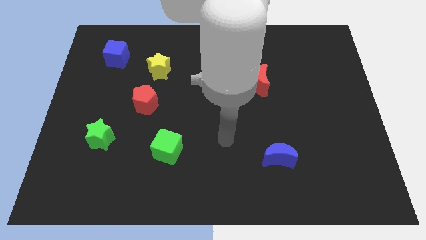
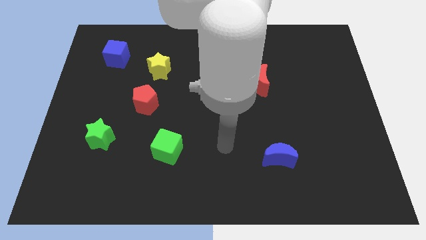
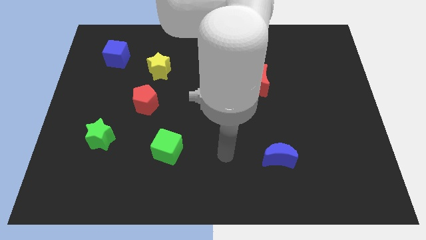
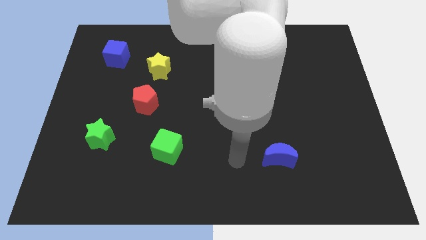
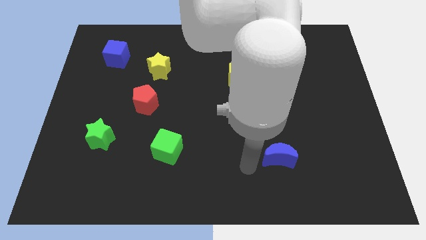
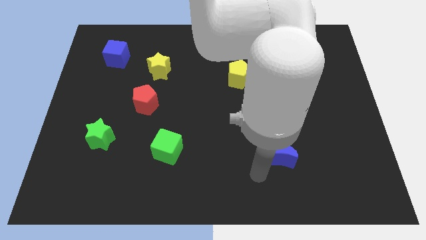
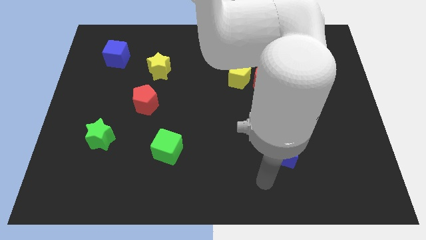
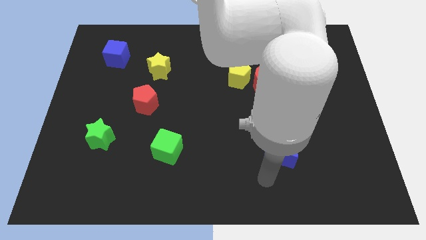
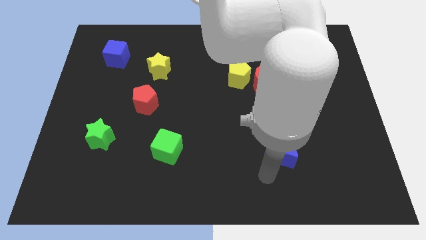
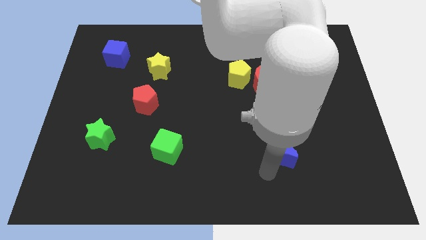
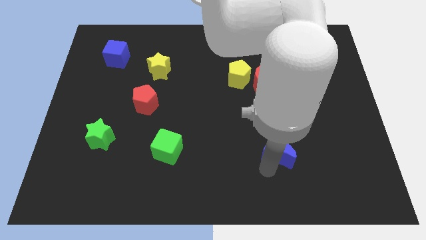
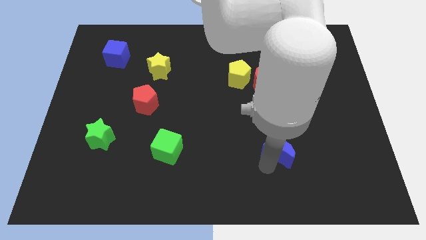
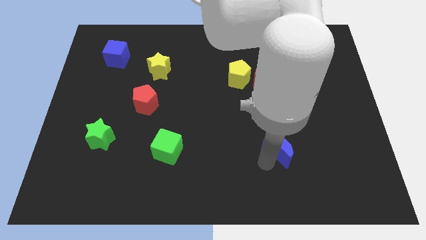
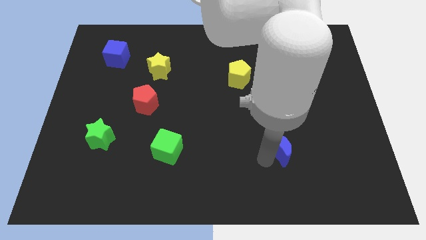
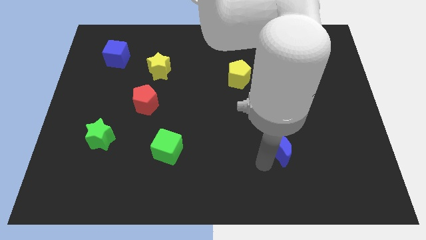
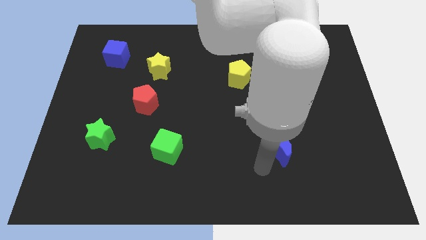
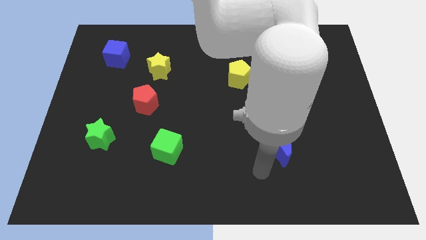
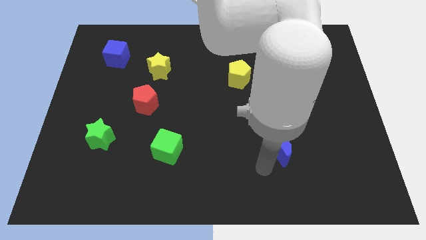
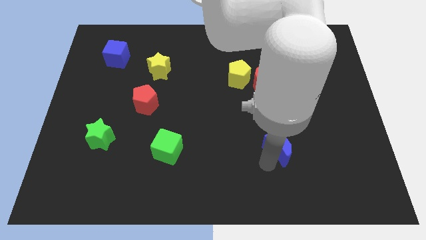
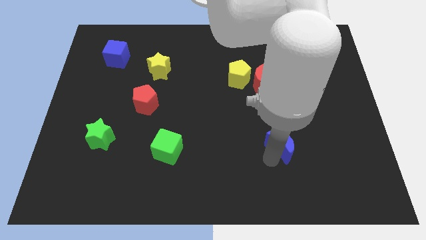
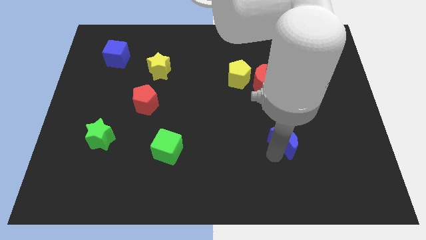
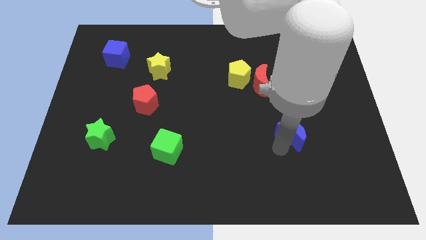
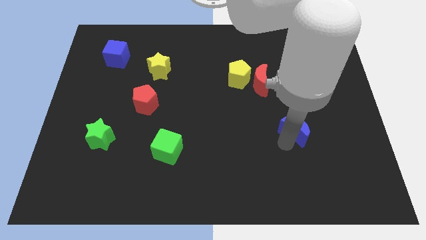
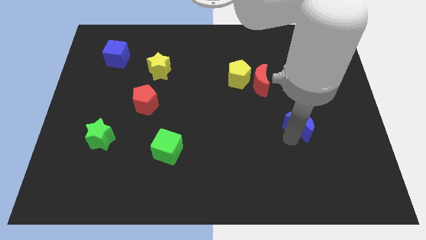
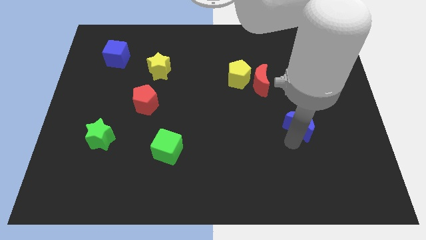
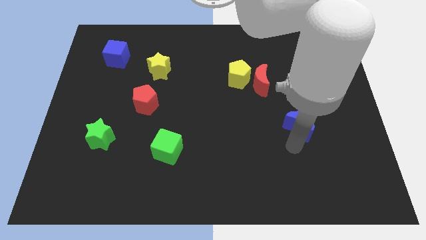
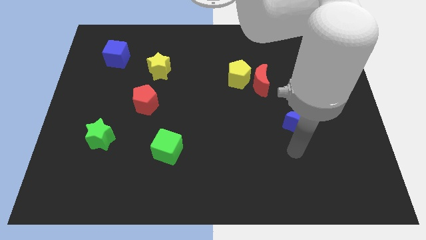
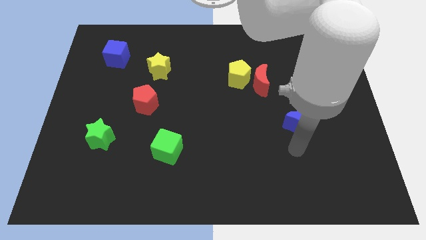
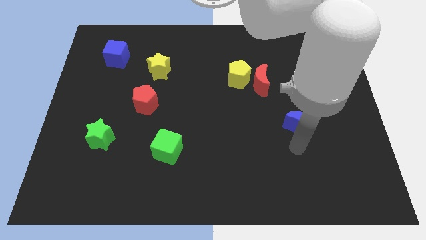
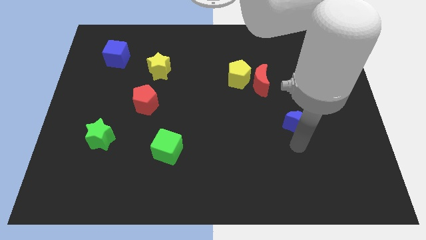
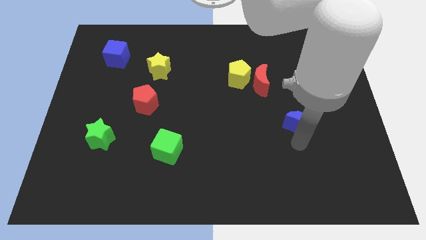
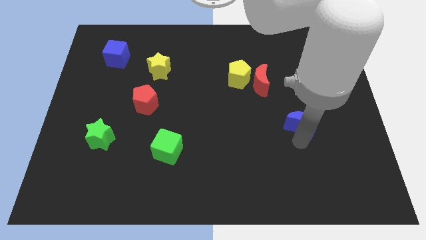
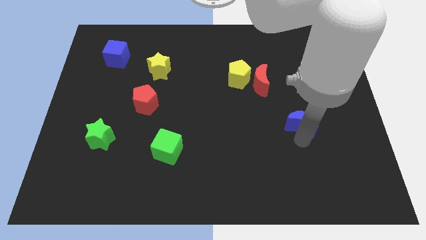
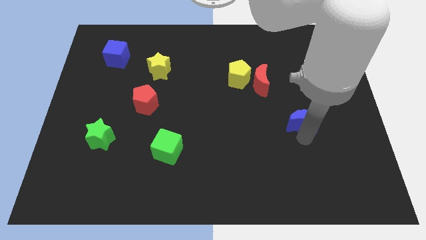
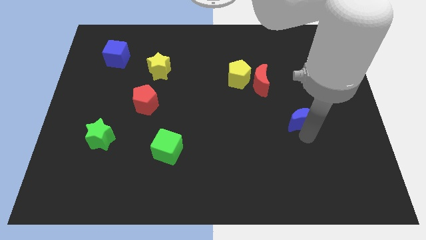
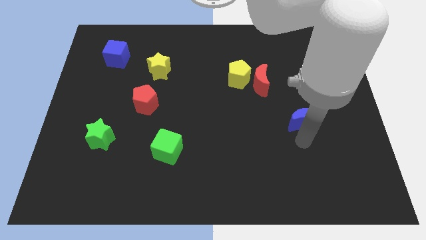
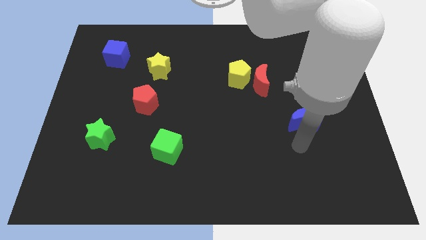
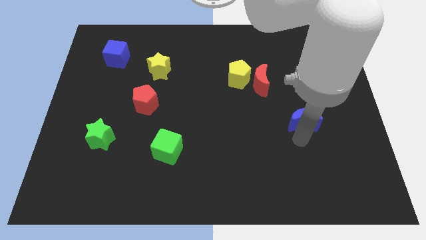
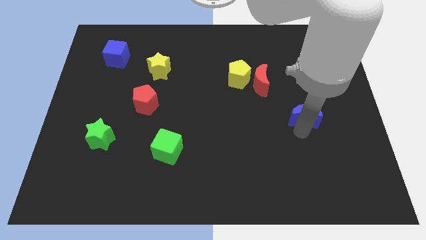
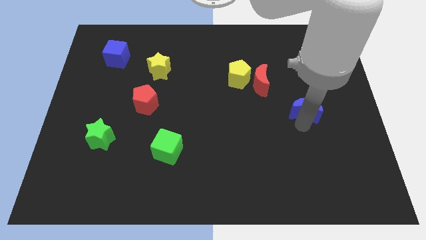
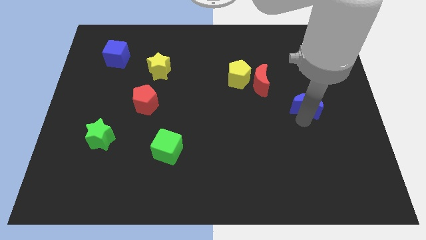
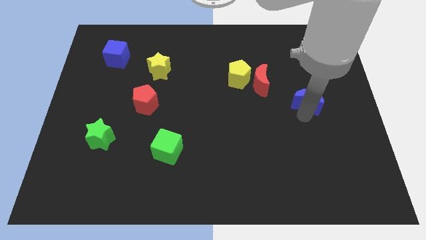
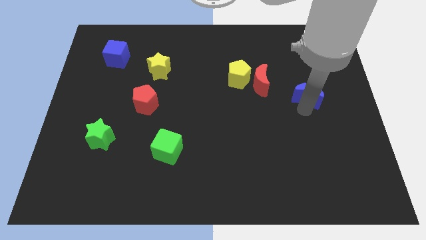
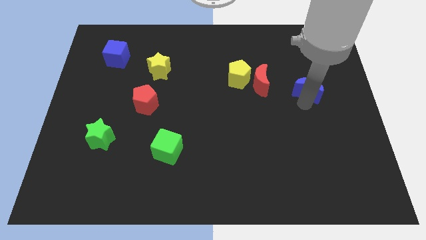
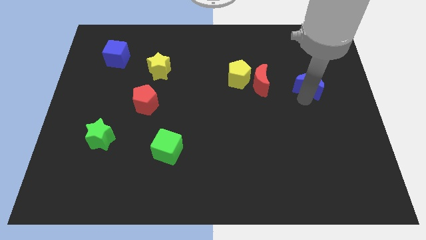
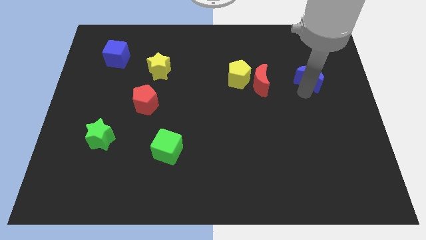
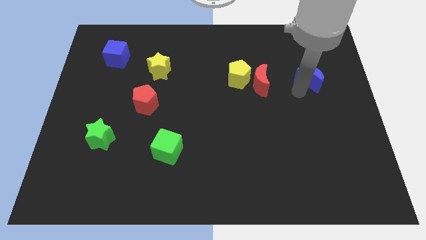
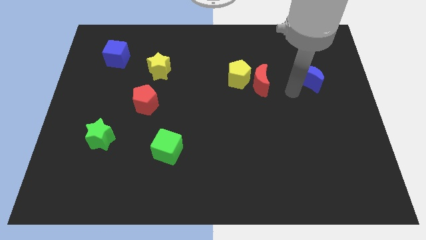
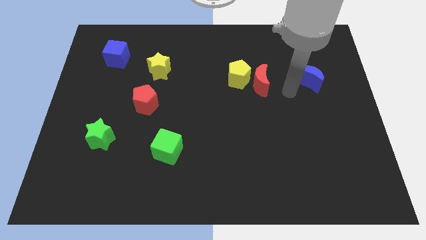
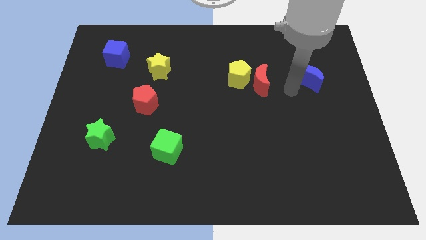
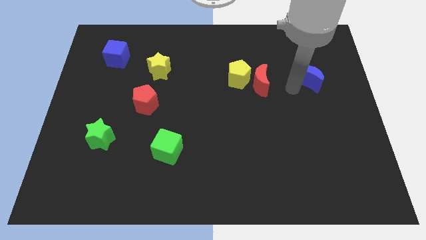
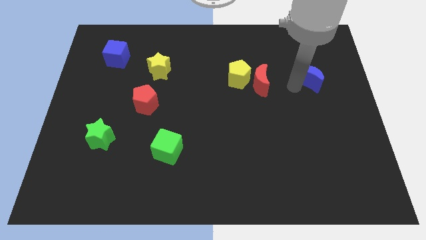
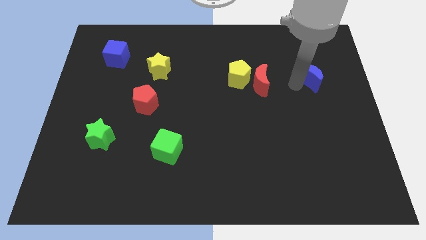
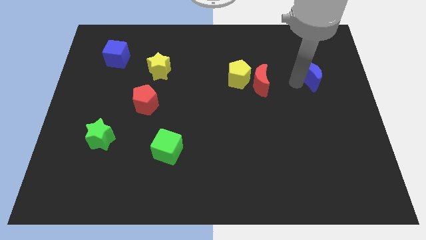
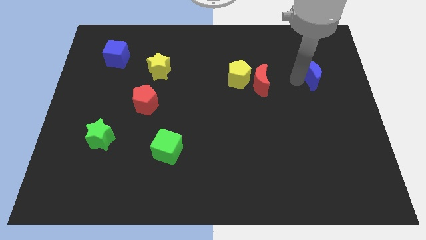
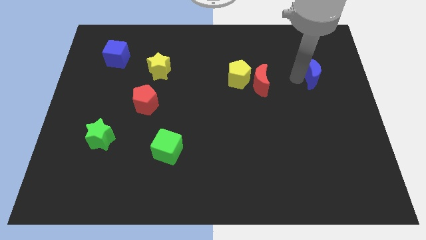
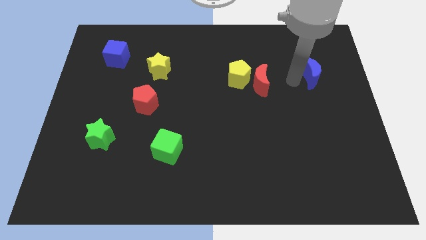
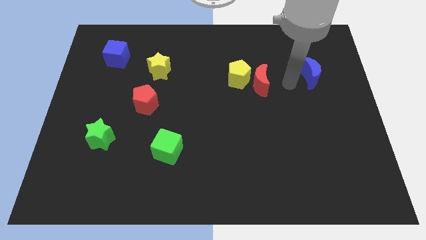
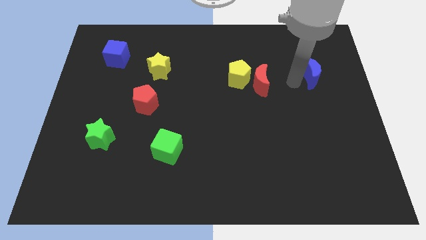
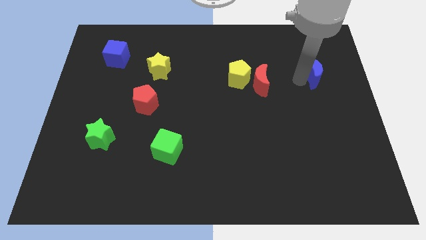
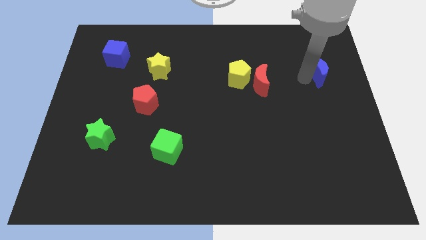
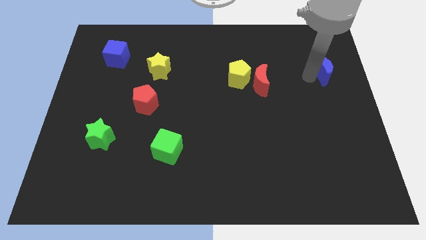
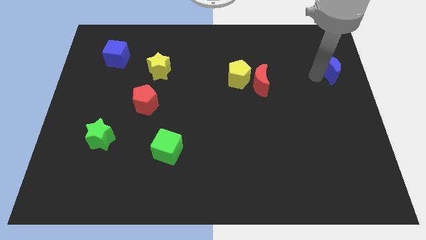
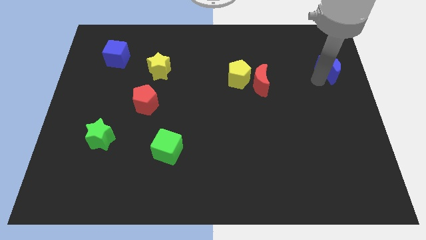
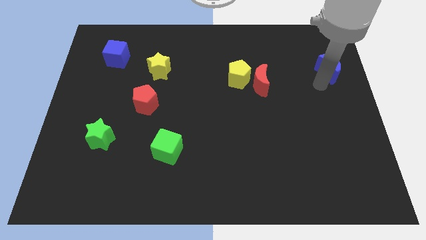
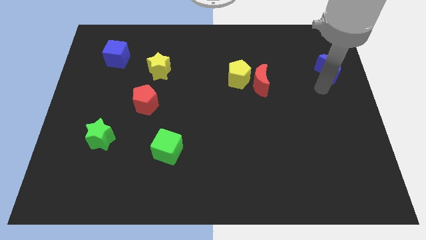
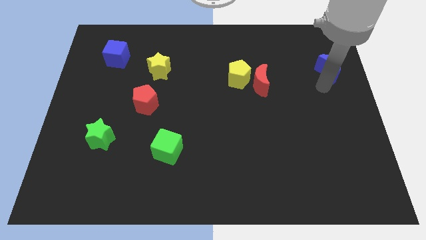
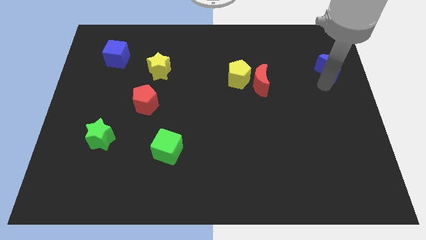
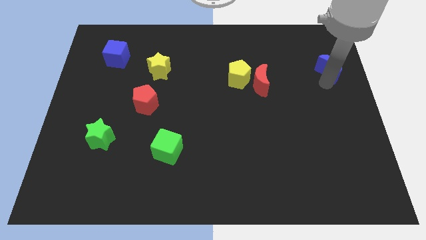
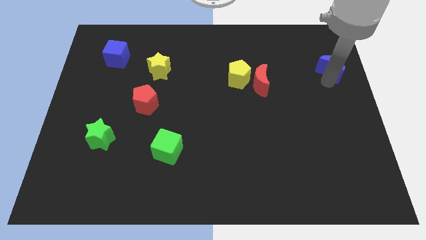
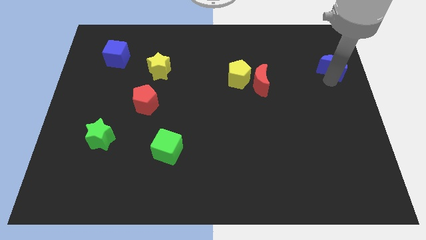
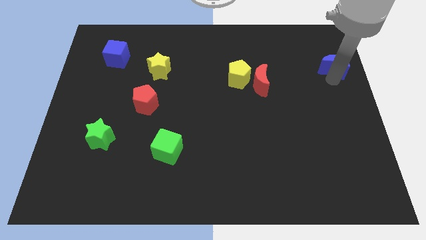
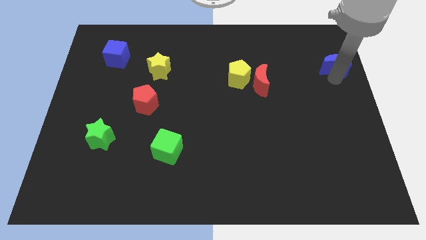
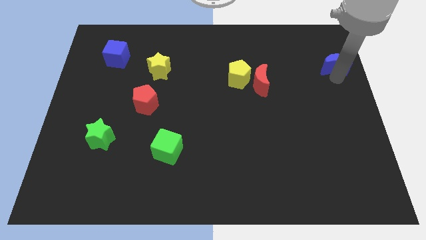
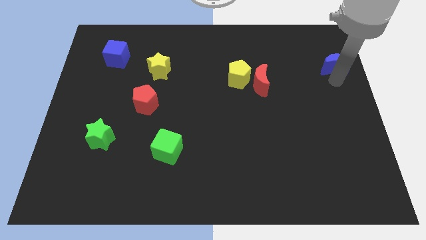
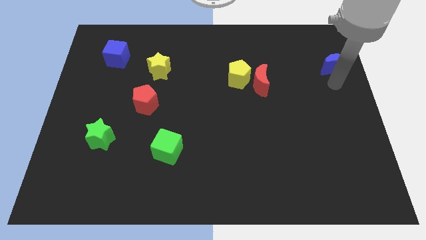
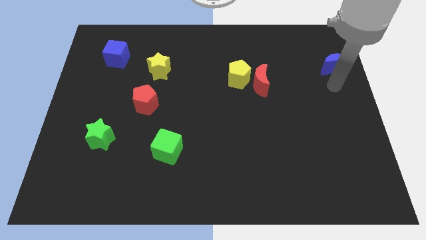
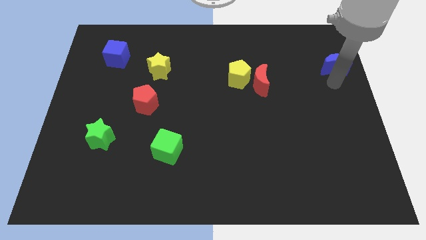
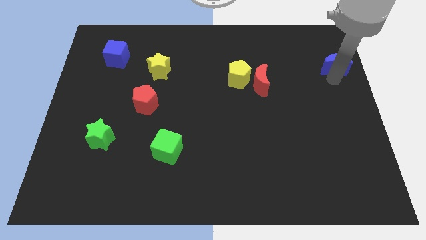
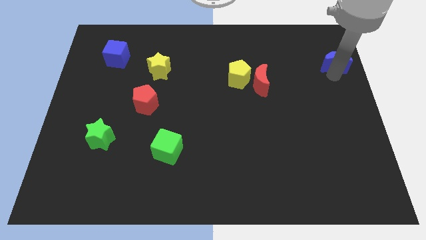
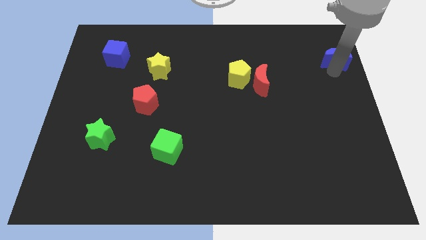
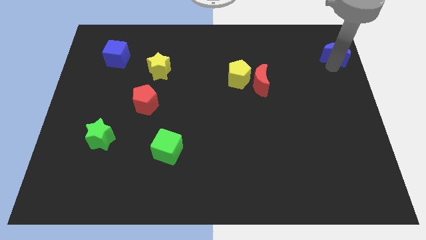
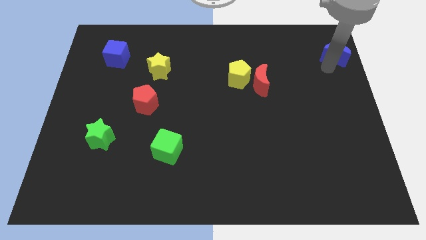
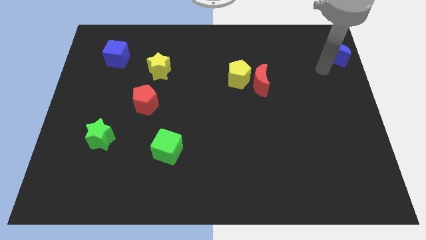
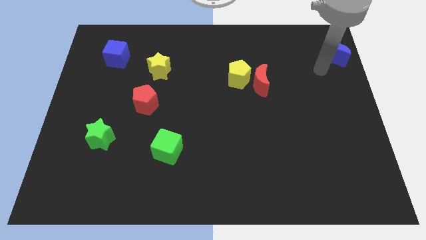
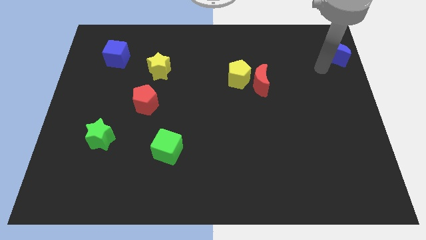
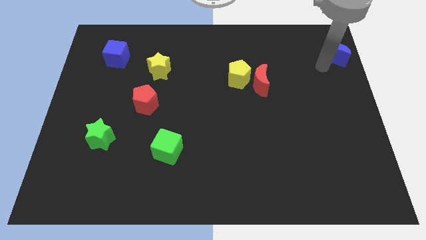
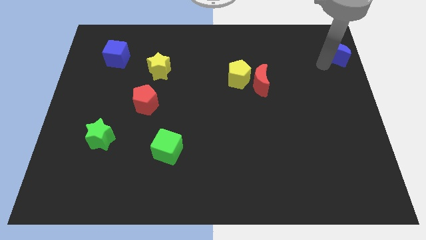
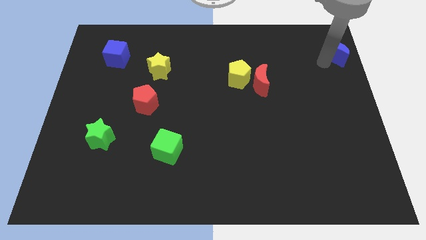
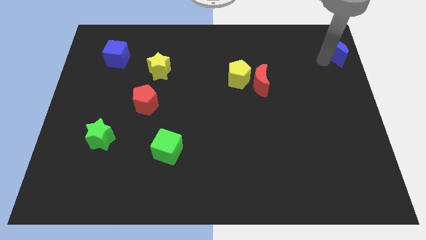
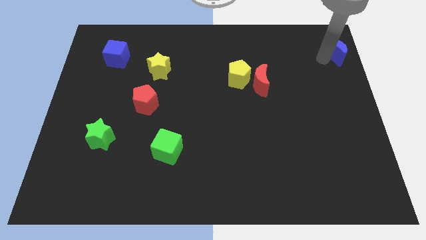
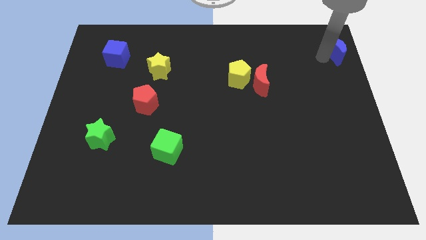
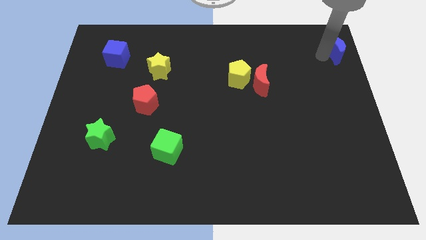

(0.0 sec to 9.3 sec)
move the blue moon to the top right corner
